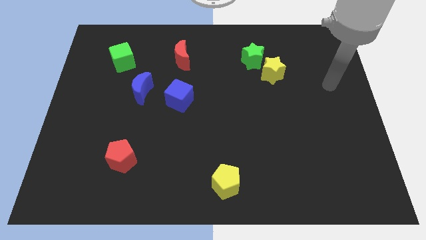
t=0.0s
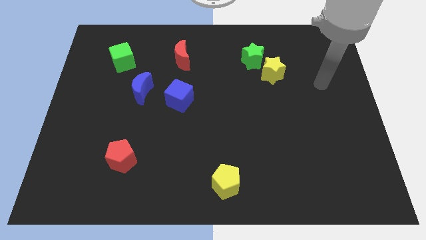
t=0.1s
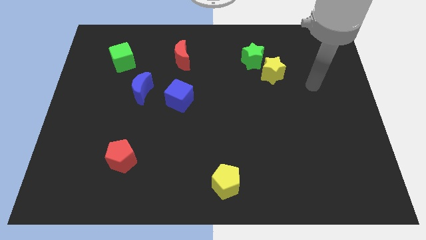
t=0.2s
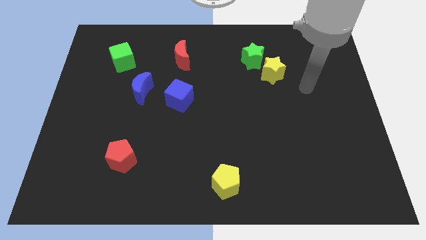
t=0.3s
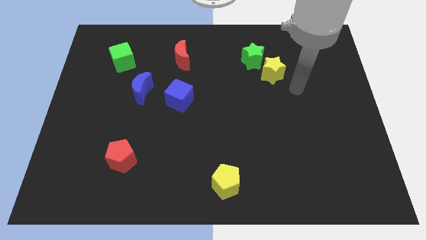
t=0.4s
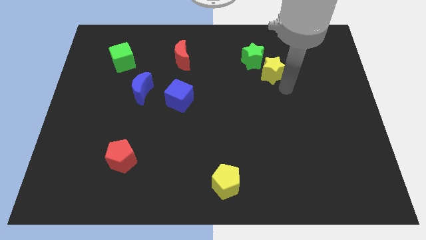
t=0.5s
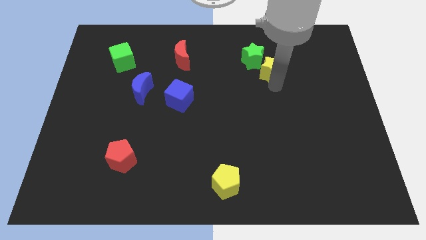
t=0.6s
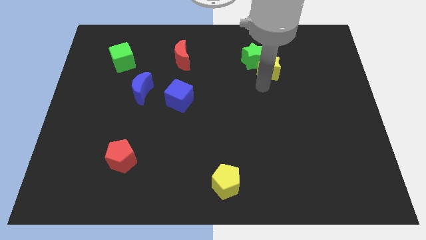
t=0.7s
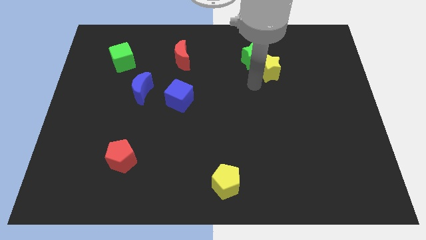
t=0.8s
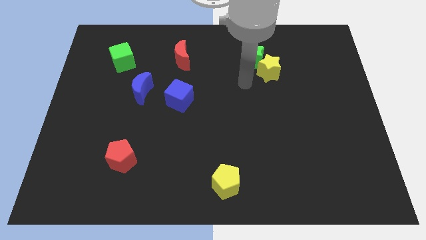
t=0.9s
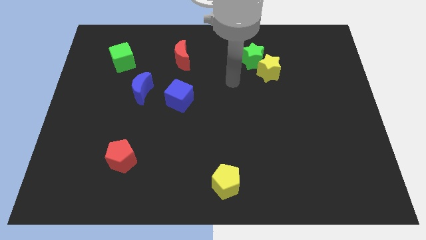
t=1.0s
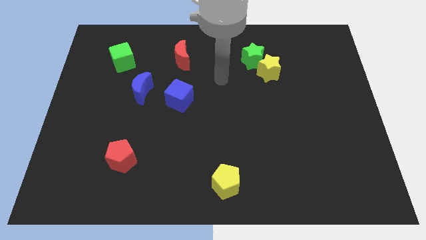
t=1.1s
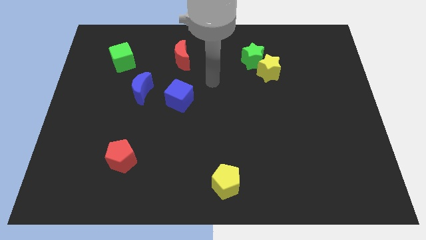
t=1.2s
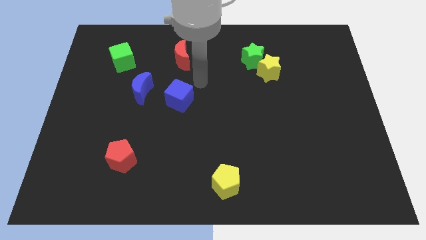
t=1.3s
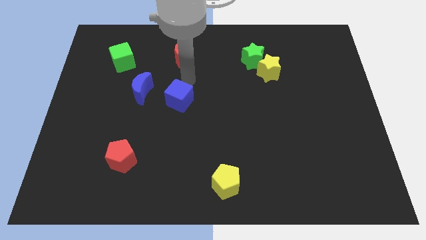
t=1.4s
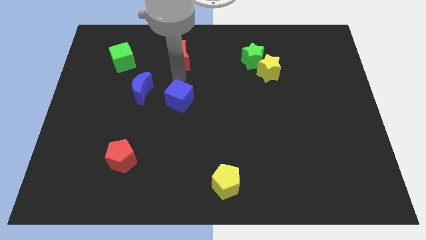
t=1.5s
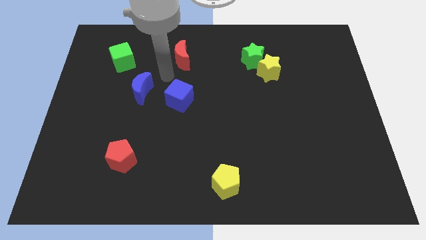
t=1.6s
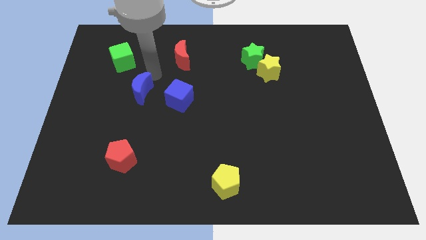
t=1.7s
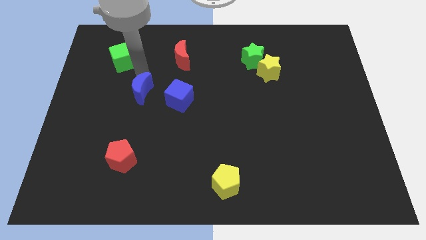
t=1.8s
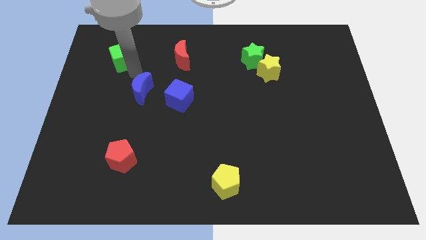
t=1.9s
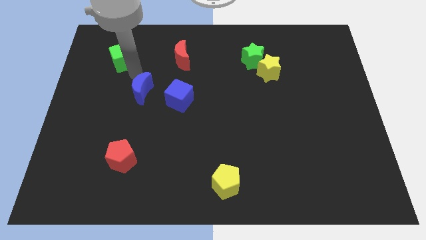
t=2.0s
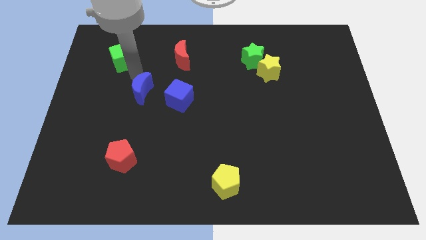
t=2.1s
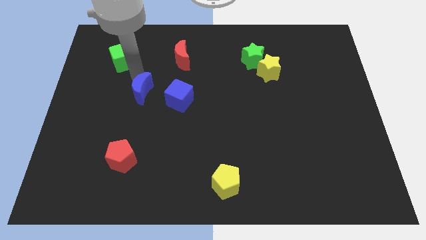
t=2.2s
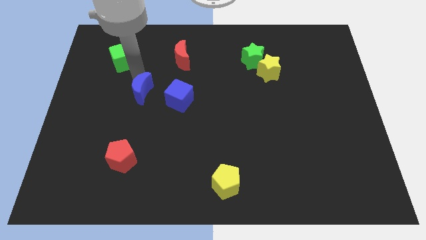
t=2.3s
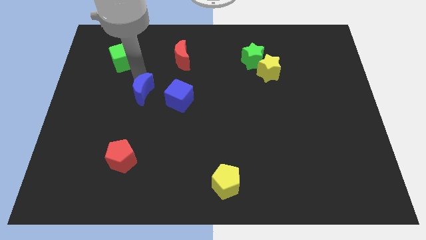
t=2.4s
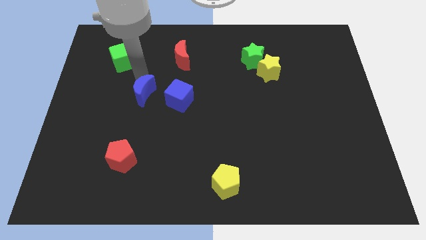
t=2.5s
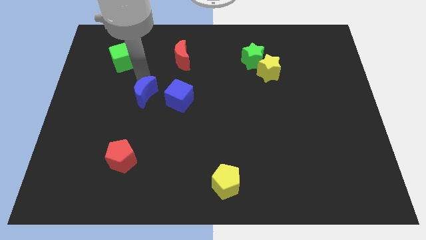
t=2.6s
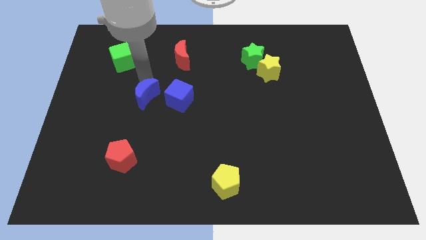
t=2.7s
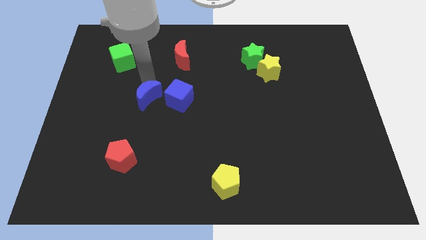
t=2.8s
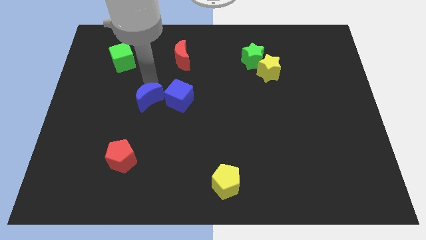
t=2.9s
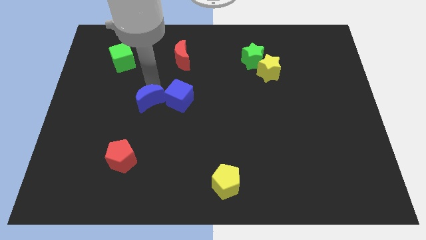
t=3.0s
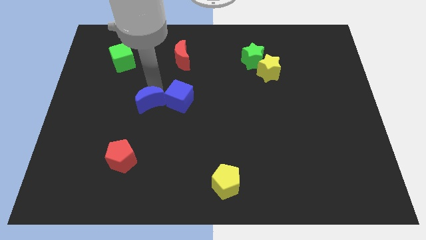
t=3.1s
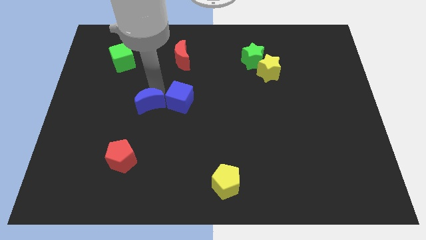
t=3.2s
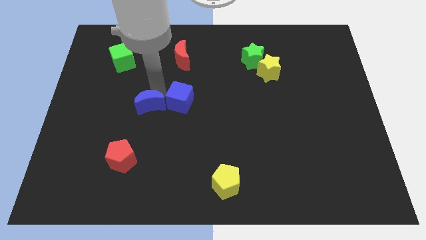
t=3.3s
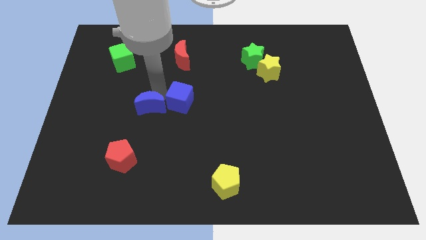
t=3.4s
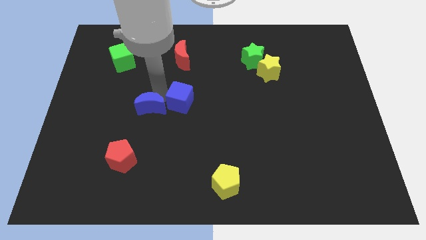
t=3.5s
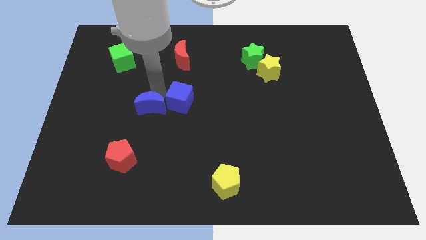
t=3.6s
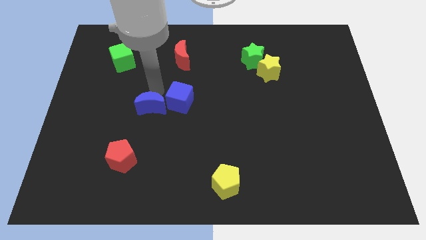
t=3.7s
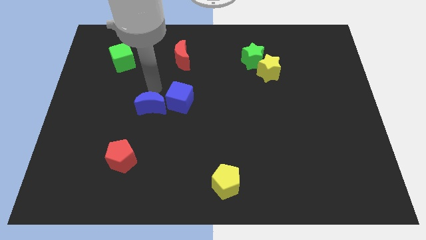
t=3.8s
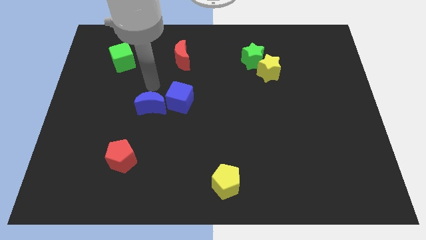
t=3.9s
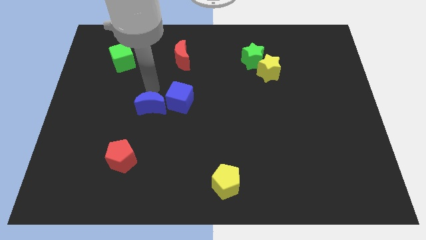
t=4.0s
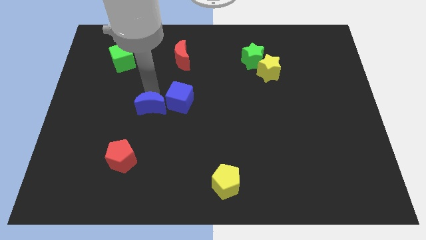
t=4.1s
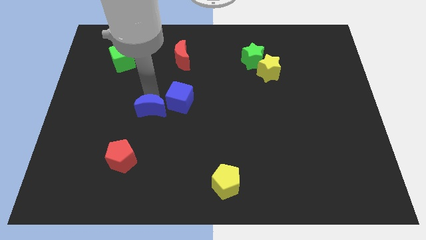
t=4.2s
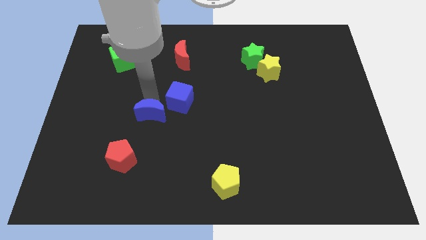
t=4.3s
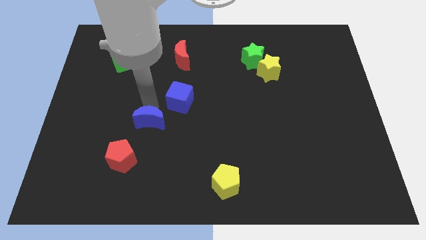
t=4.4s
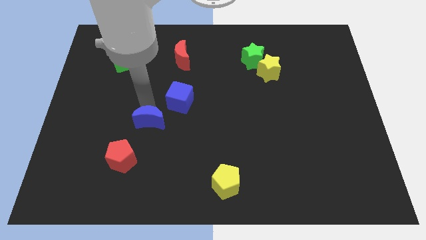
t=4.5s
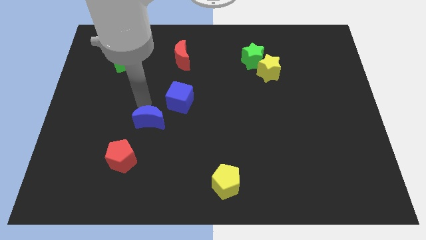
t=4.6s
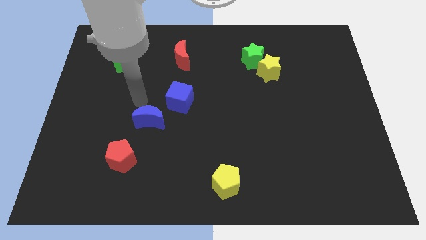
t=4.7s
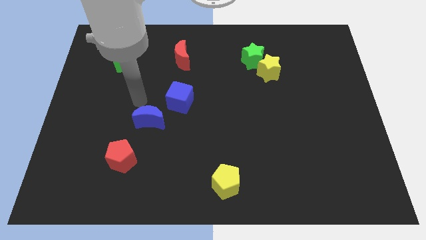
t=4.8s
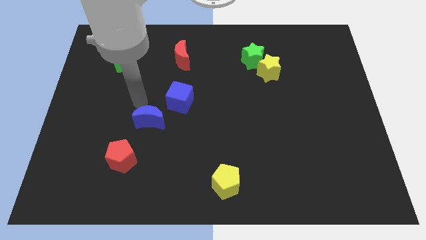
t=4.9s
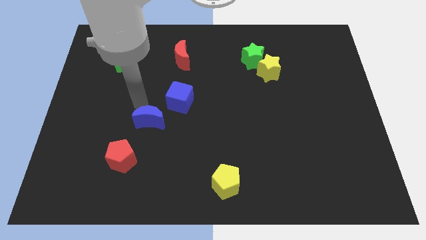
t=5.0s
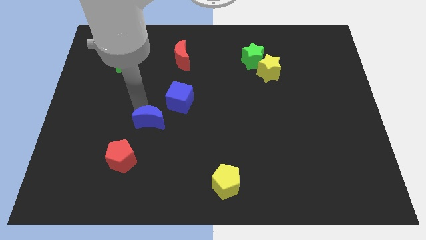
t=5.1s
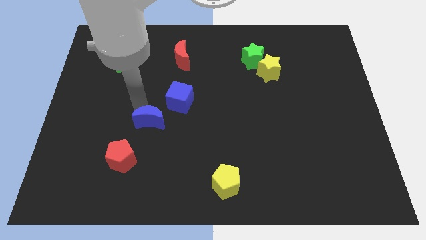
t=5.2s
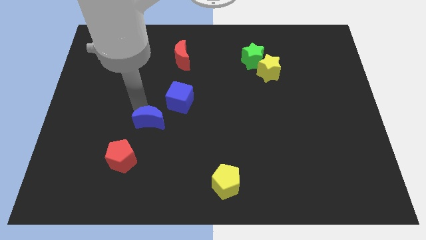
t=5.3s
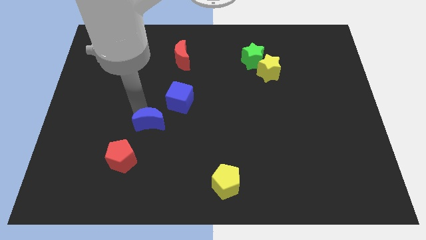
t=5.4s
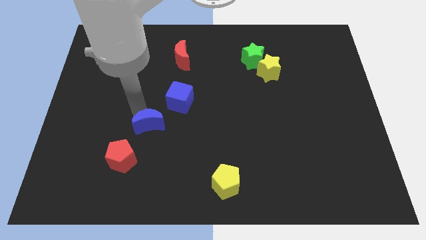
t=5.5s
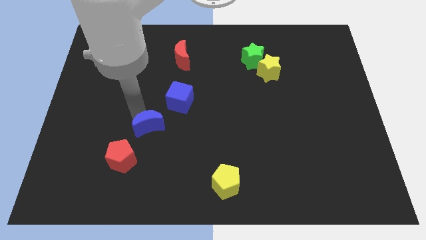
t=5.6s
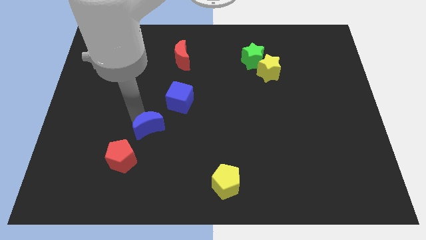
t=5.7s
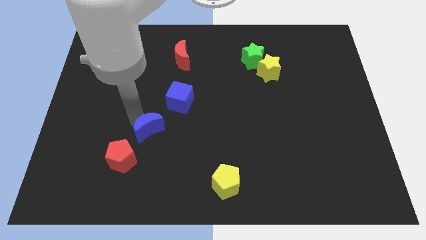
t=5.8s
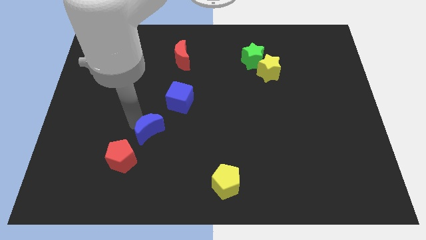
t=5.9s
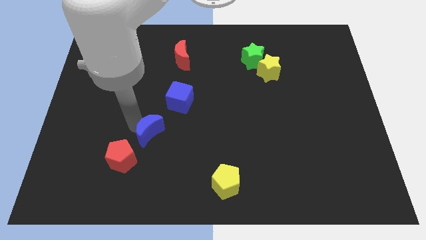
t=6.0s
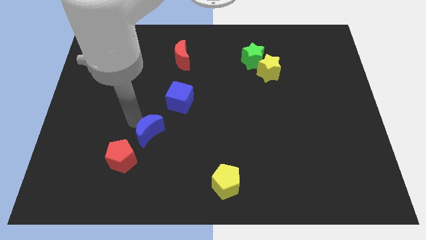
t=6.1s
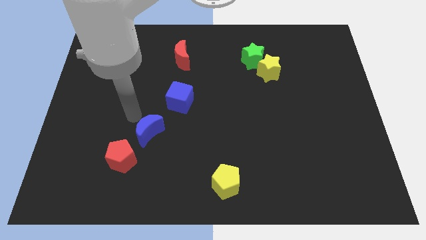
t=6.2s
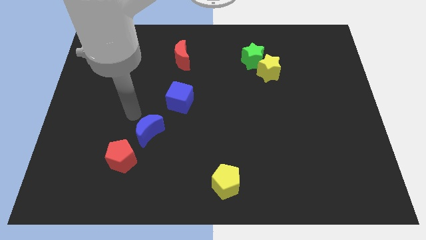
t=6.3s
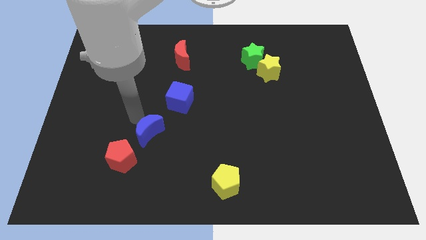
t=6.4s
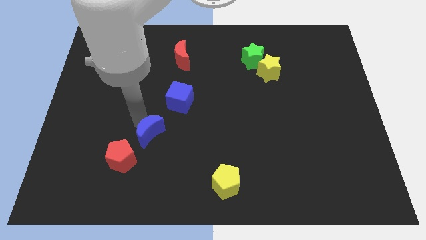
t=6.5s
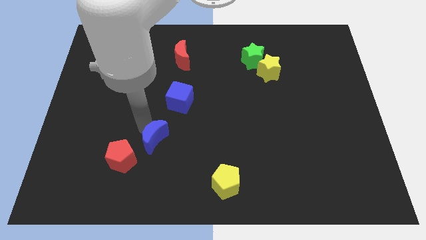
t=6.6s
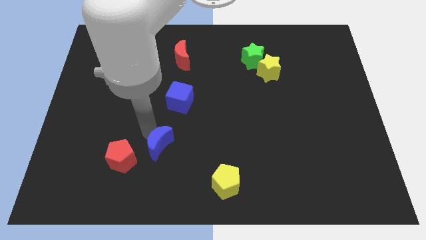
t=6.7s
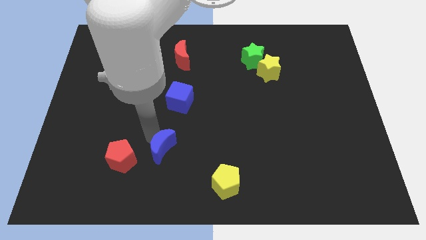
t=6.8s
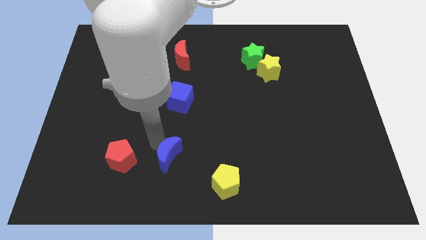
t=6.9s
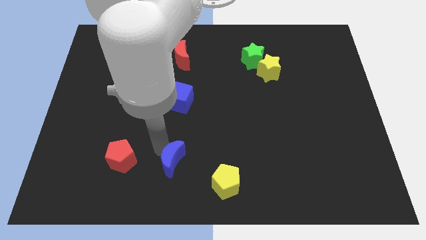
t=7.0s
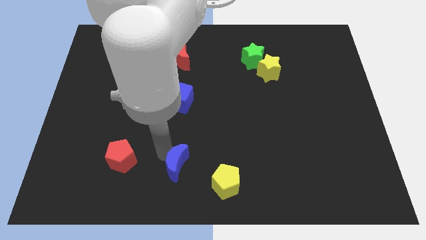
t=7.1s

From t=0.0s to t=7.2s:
slide the blue moon to the bottom

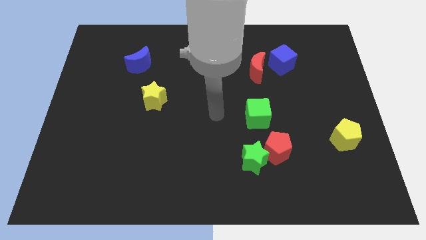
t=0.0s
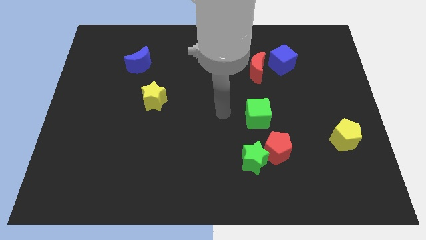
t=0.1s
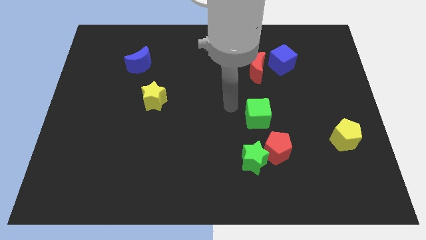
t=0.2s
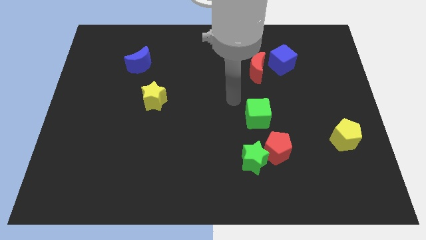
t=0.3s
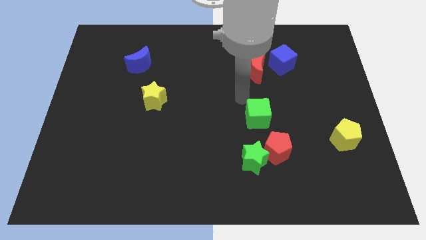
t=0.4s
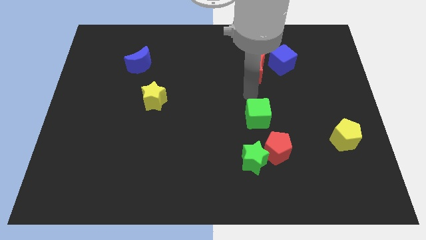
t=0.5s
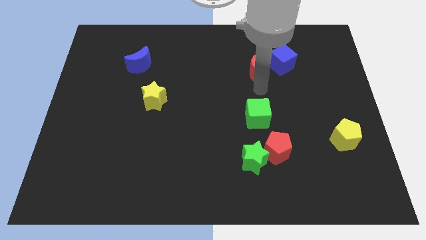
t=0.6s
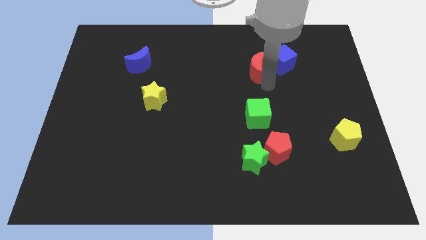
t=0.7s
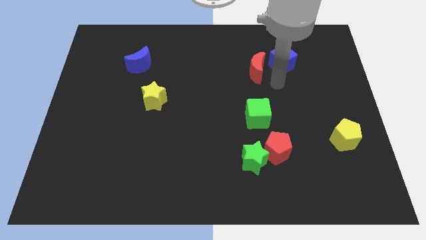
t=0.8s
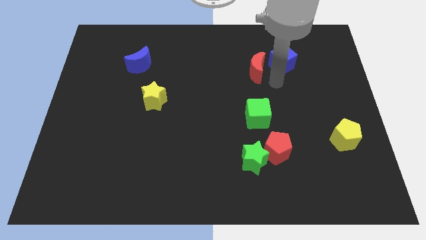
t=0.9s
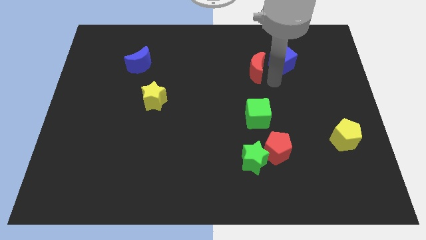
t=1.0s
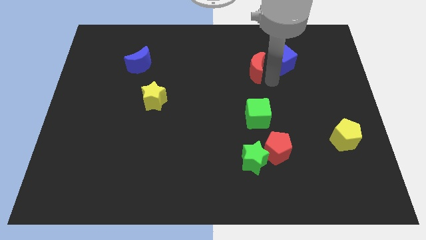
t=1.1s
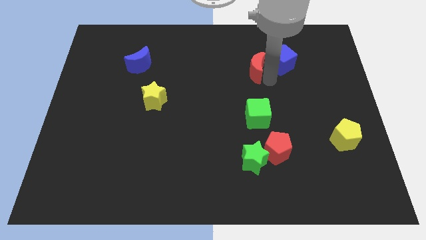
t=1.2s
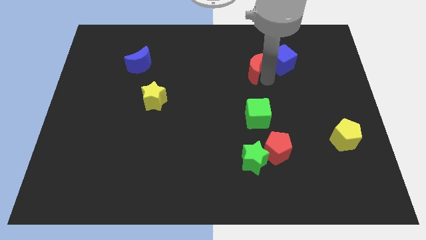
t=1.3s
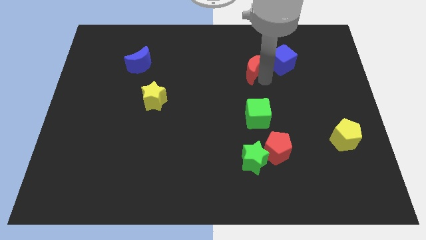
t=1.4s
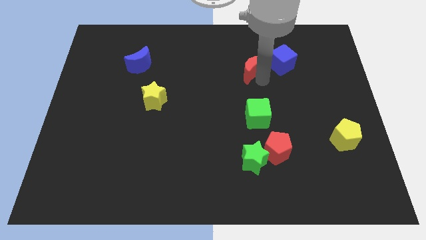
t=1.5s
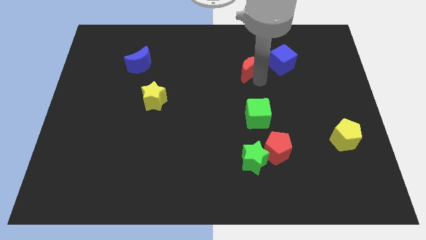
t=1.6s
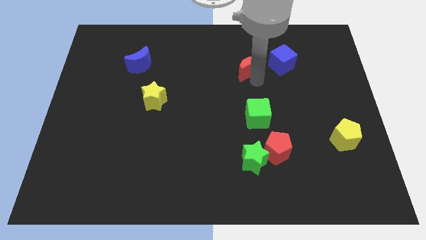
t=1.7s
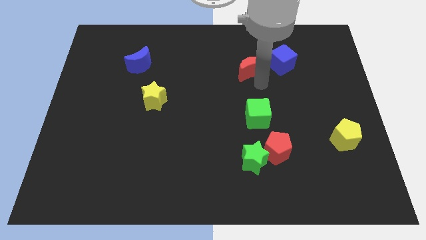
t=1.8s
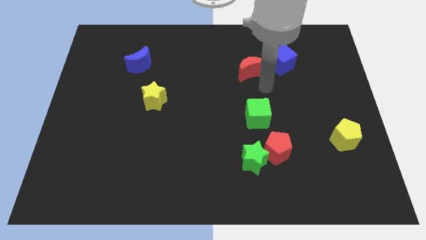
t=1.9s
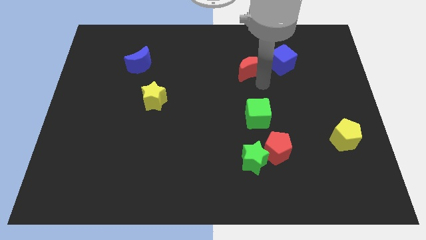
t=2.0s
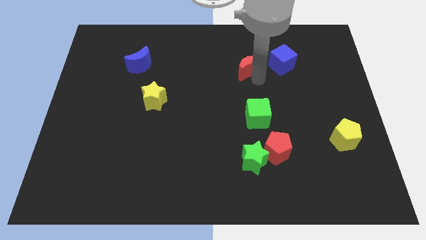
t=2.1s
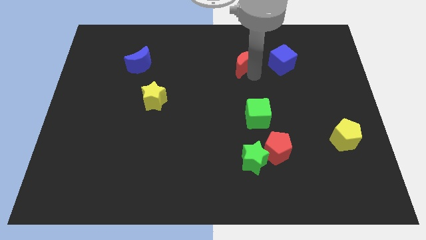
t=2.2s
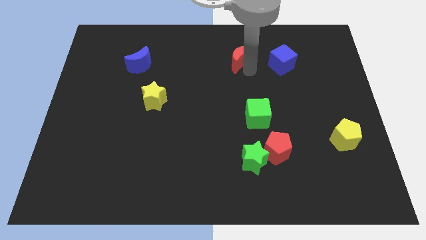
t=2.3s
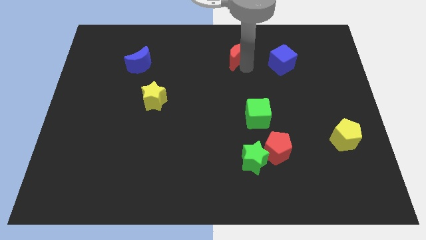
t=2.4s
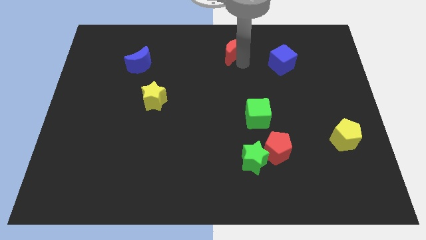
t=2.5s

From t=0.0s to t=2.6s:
put the red moon to the top side
